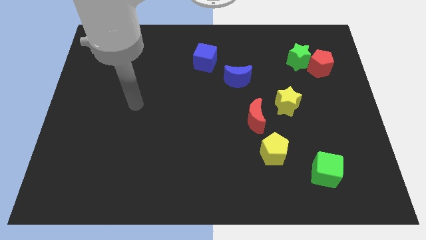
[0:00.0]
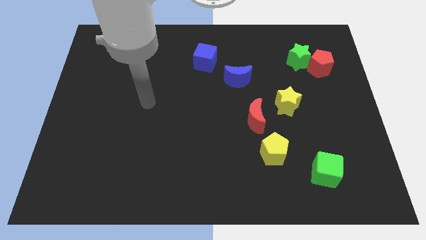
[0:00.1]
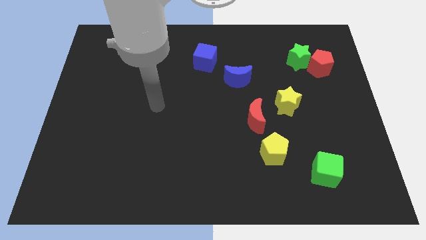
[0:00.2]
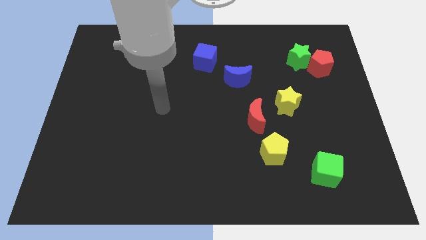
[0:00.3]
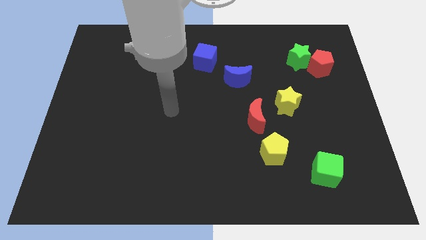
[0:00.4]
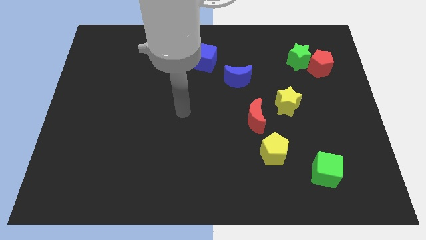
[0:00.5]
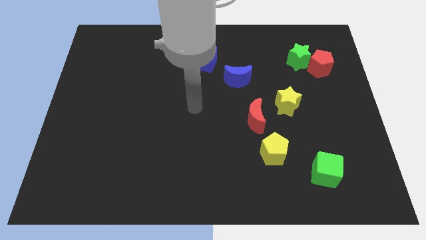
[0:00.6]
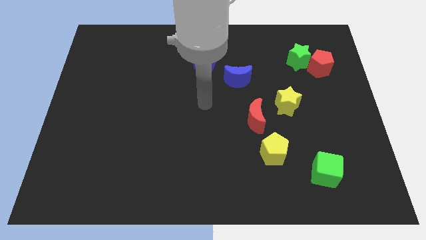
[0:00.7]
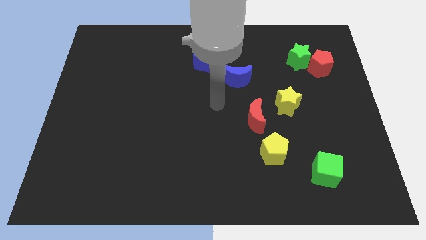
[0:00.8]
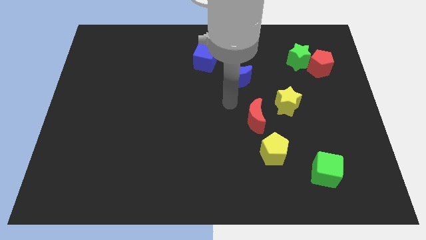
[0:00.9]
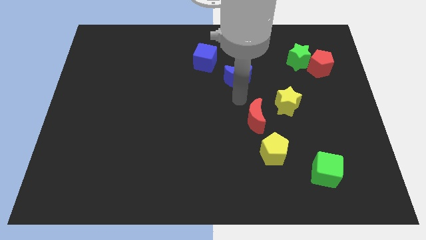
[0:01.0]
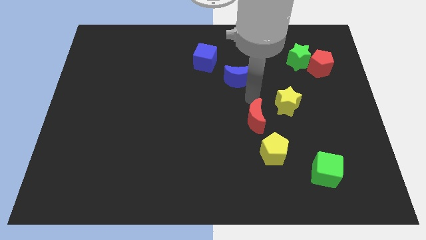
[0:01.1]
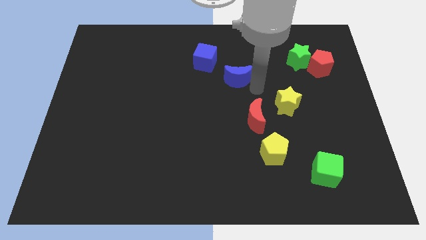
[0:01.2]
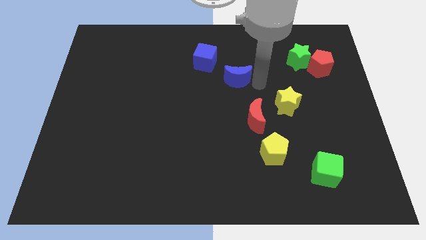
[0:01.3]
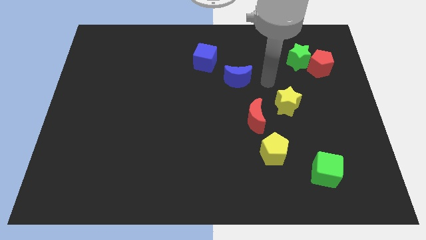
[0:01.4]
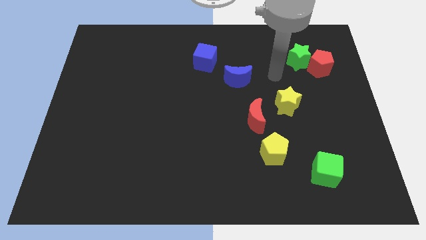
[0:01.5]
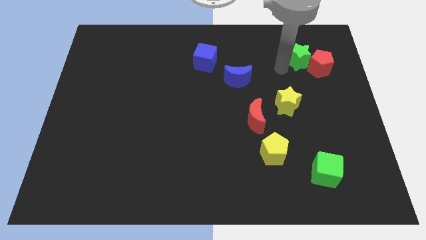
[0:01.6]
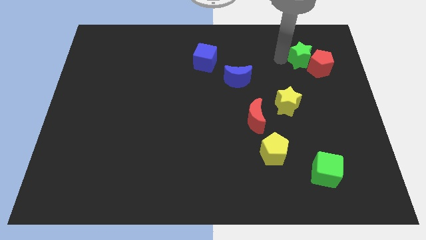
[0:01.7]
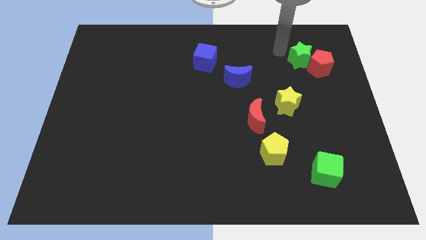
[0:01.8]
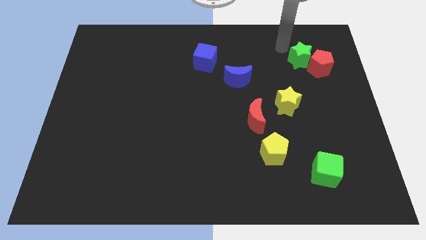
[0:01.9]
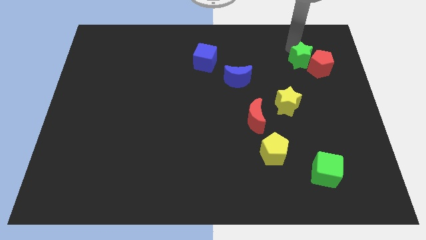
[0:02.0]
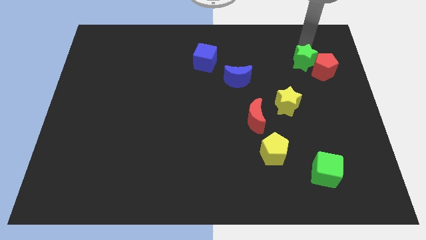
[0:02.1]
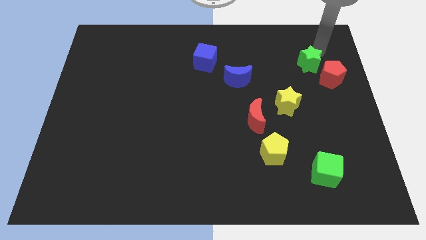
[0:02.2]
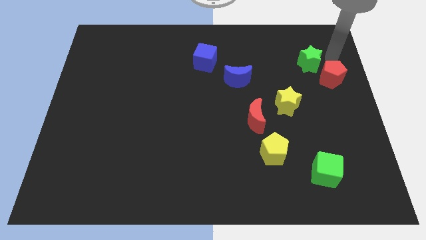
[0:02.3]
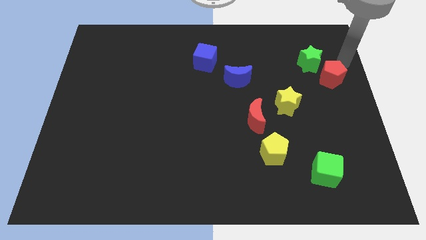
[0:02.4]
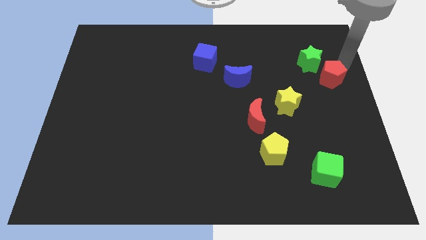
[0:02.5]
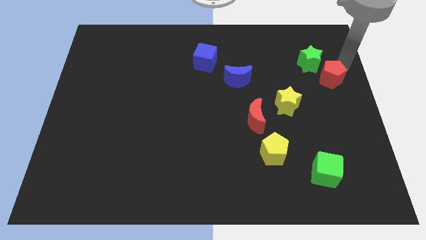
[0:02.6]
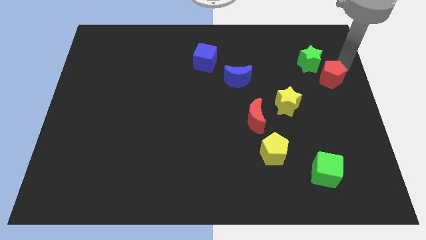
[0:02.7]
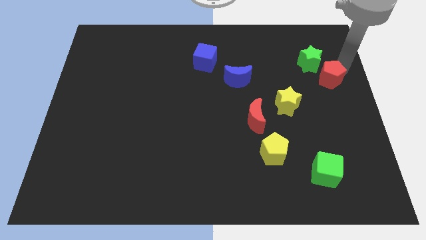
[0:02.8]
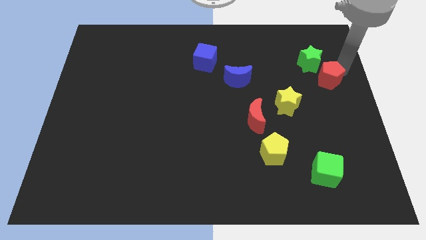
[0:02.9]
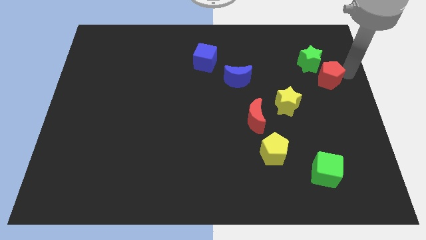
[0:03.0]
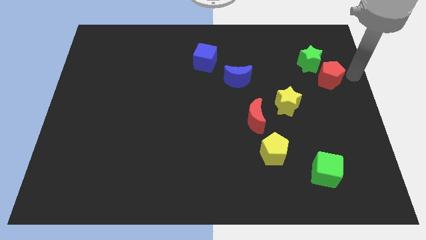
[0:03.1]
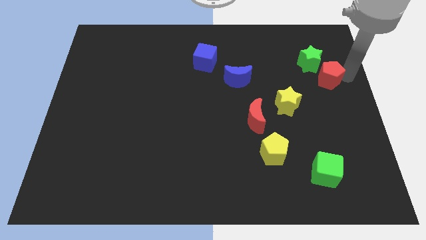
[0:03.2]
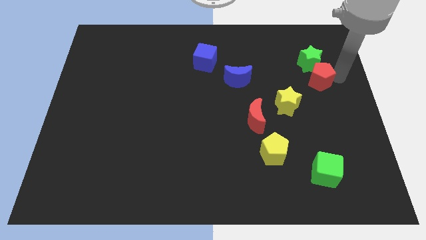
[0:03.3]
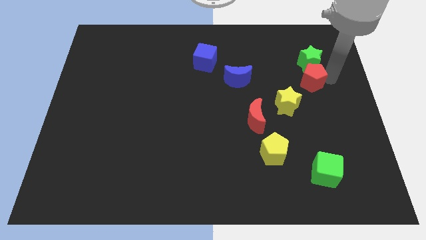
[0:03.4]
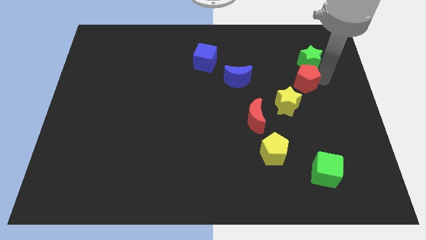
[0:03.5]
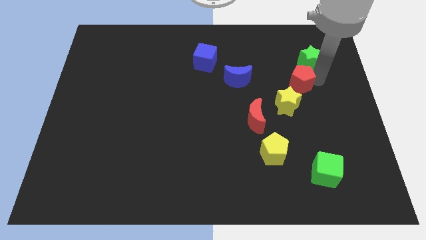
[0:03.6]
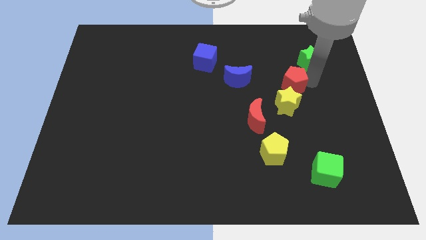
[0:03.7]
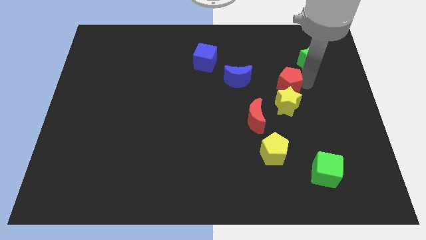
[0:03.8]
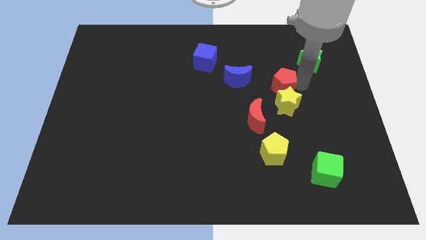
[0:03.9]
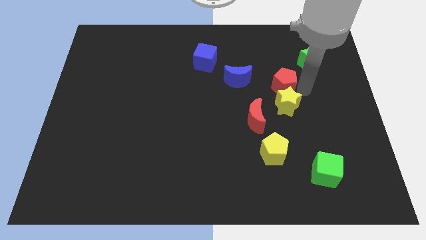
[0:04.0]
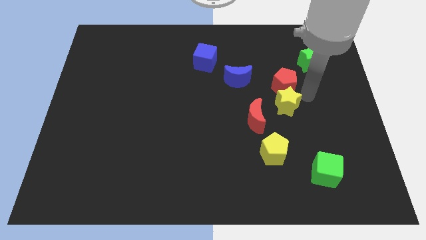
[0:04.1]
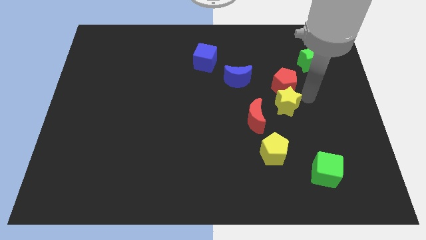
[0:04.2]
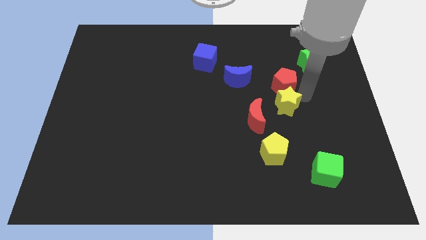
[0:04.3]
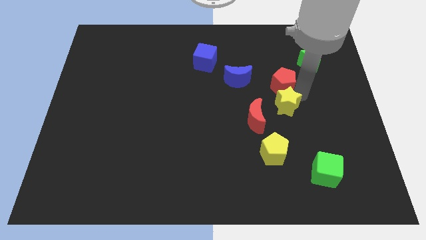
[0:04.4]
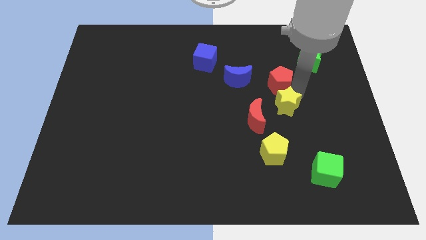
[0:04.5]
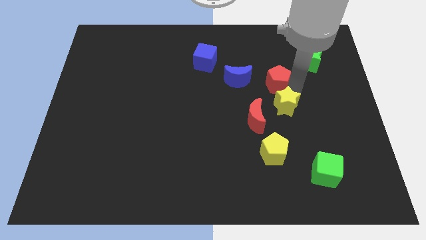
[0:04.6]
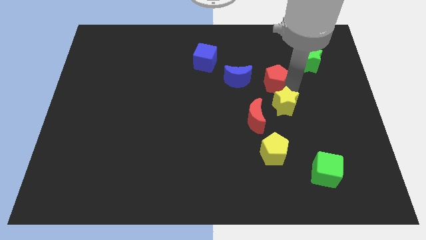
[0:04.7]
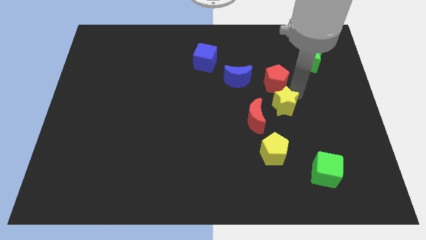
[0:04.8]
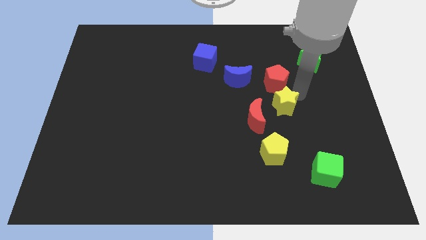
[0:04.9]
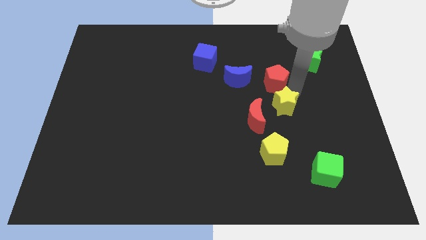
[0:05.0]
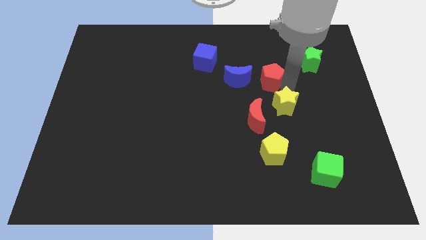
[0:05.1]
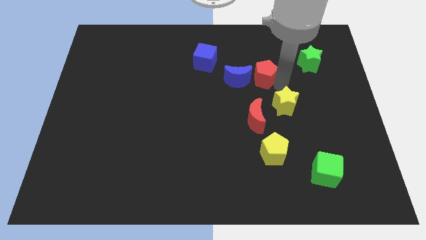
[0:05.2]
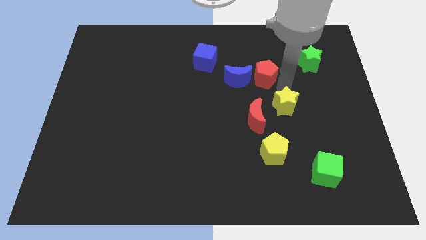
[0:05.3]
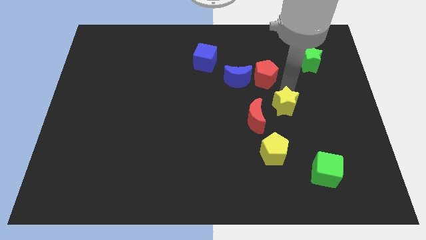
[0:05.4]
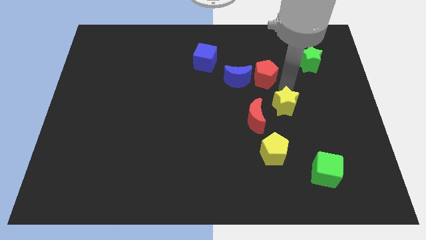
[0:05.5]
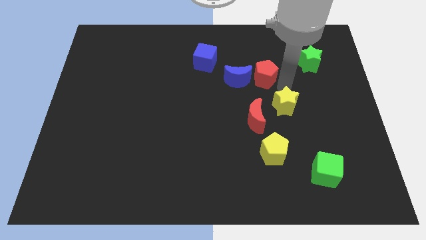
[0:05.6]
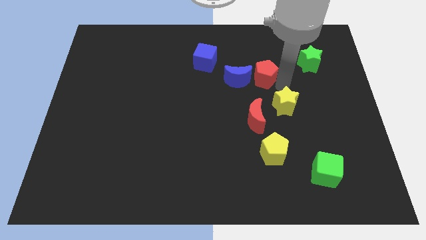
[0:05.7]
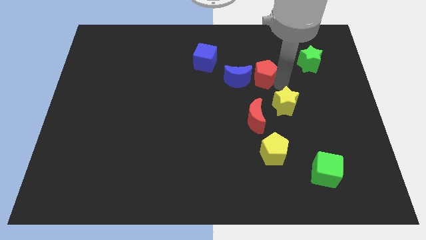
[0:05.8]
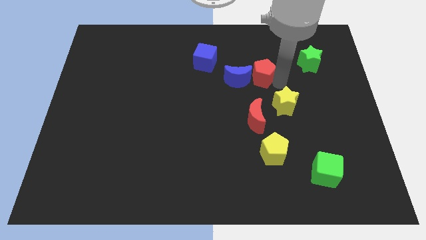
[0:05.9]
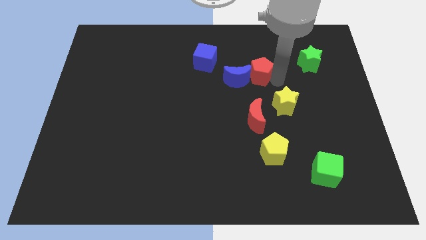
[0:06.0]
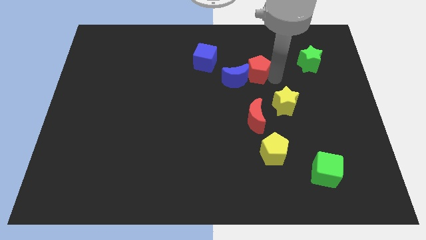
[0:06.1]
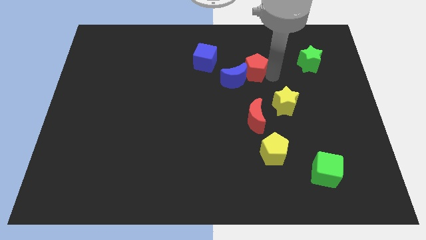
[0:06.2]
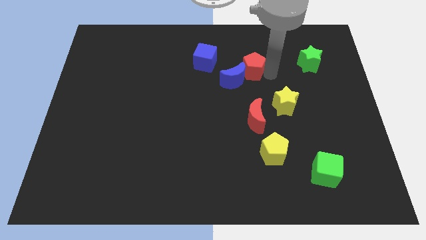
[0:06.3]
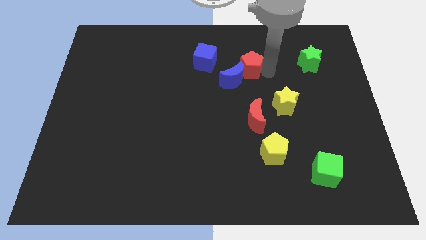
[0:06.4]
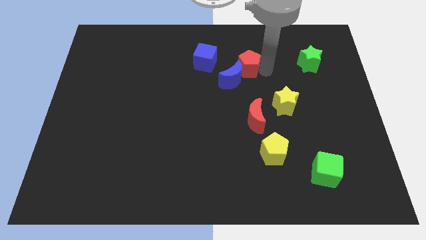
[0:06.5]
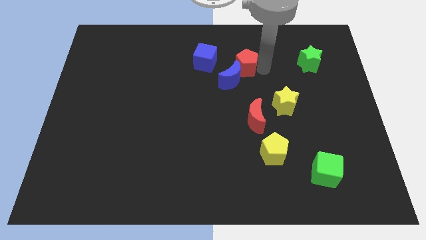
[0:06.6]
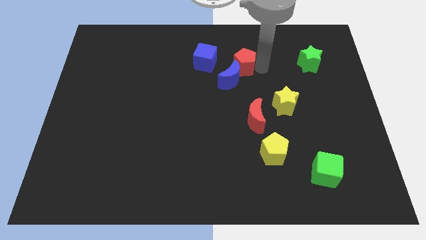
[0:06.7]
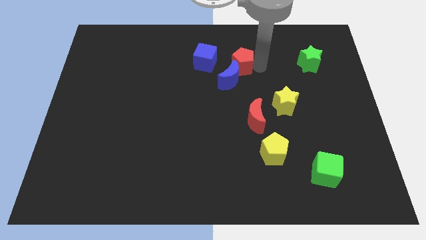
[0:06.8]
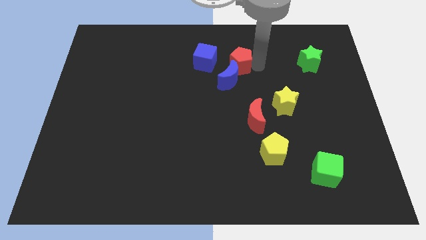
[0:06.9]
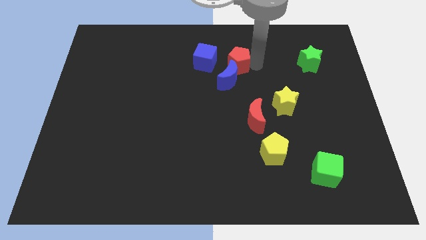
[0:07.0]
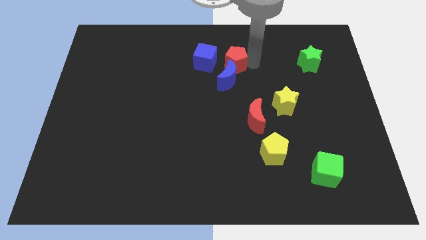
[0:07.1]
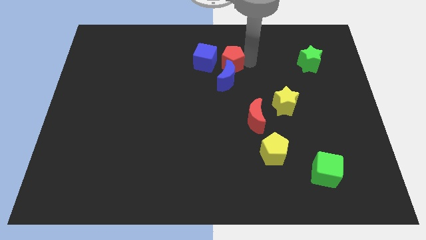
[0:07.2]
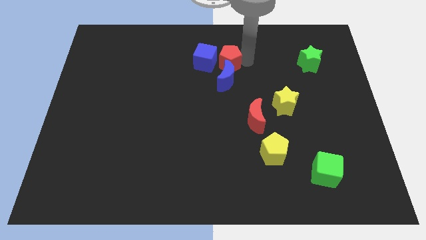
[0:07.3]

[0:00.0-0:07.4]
move the red pentagon to the blue cube
